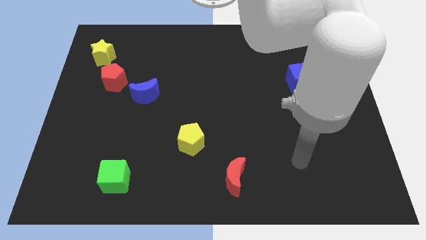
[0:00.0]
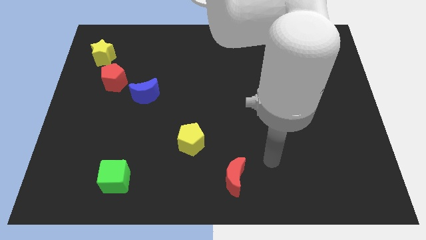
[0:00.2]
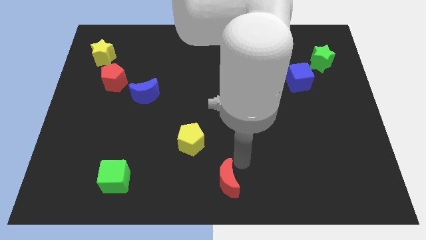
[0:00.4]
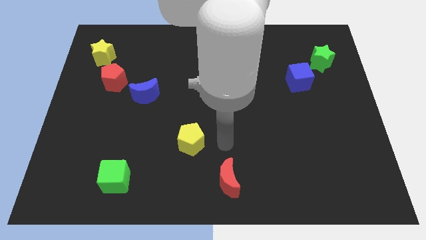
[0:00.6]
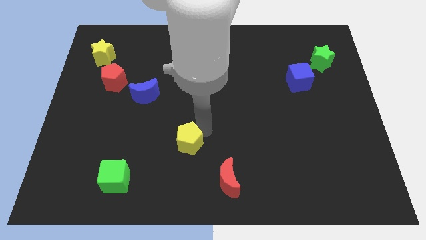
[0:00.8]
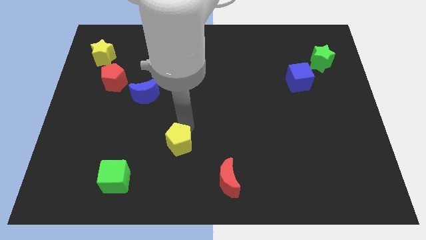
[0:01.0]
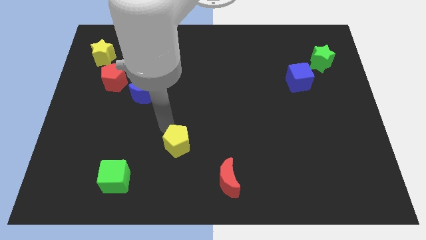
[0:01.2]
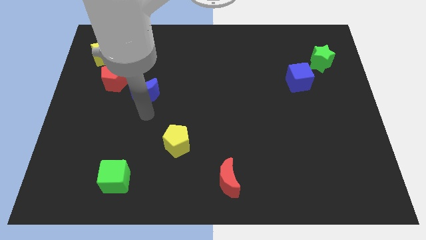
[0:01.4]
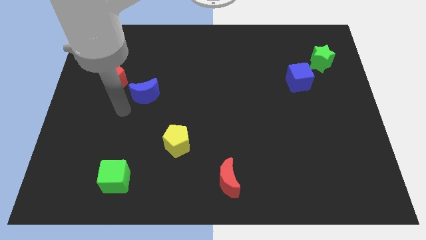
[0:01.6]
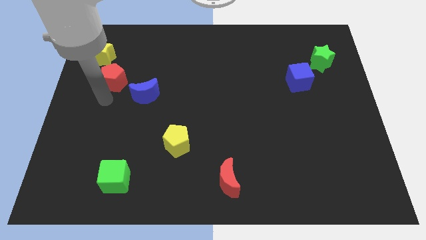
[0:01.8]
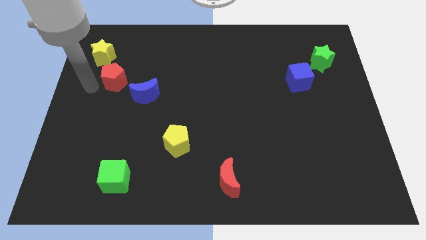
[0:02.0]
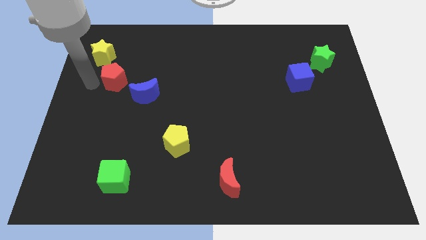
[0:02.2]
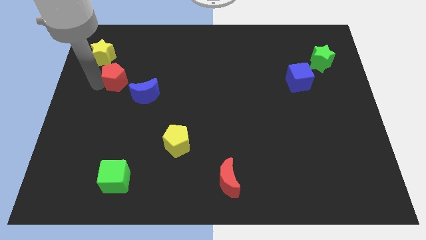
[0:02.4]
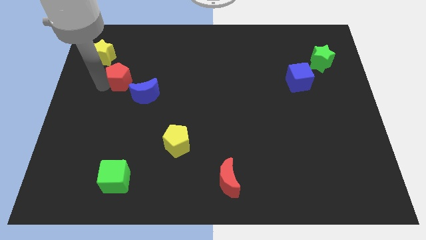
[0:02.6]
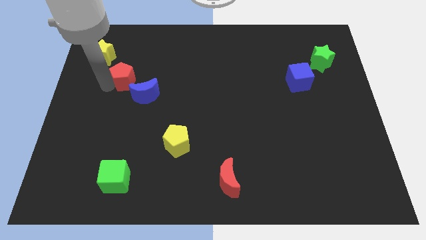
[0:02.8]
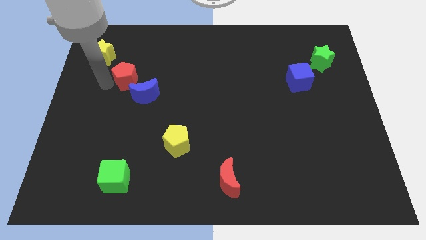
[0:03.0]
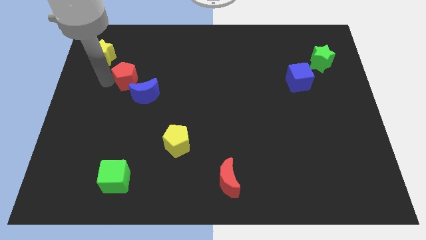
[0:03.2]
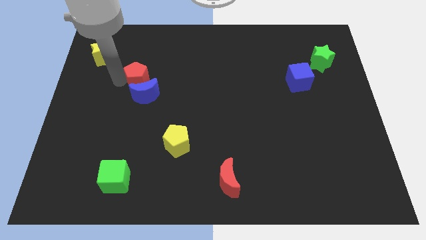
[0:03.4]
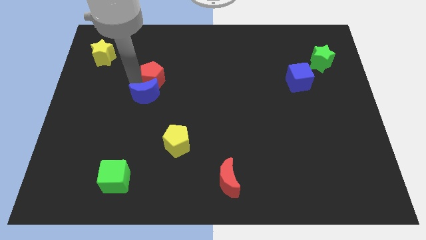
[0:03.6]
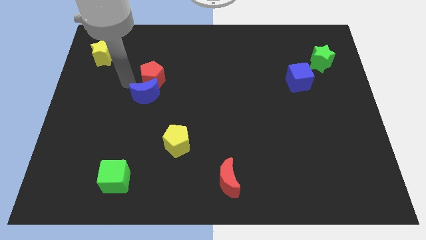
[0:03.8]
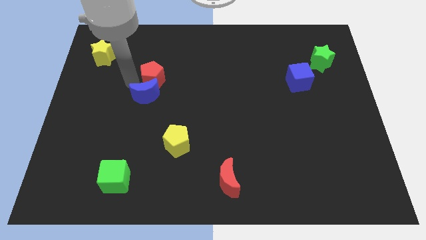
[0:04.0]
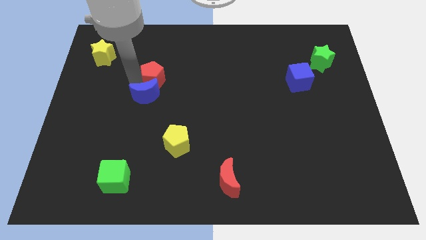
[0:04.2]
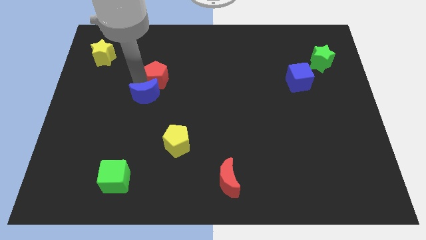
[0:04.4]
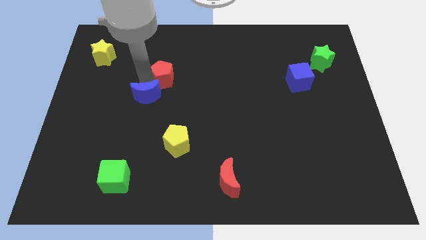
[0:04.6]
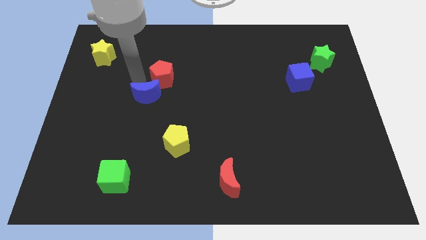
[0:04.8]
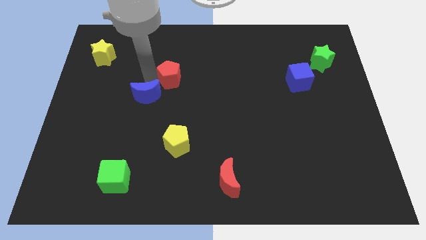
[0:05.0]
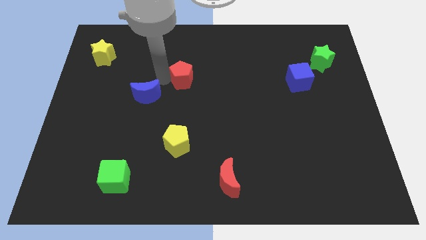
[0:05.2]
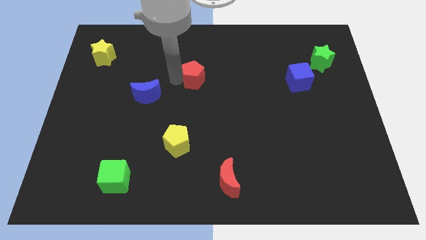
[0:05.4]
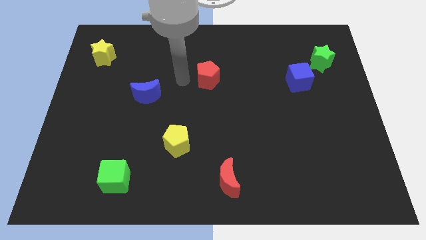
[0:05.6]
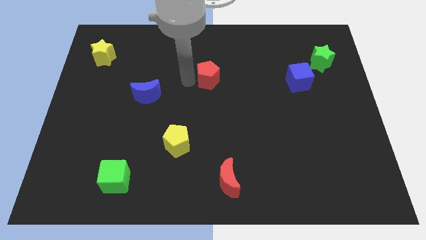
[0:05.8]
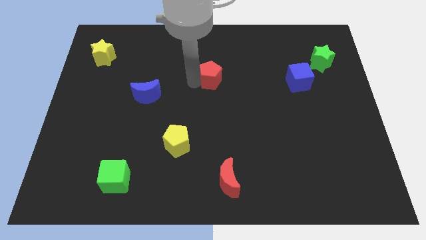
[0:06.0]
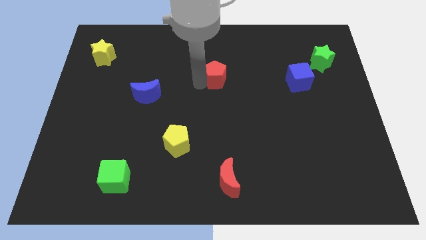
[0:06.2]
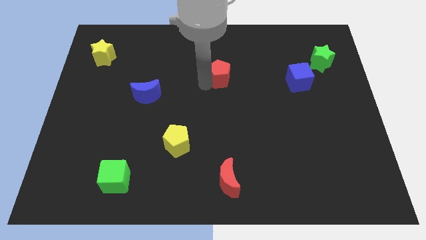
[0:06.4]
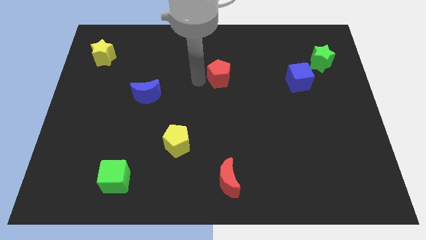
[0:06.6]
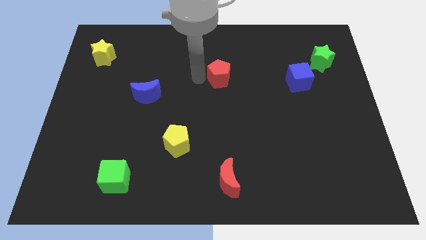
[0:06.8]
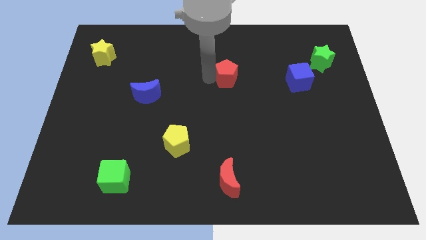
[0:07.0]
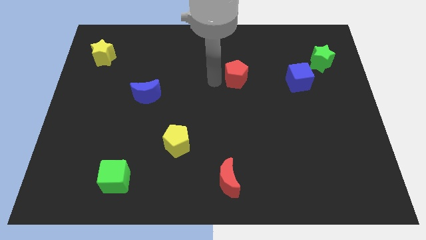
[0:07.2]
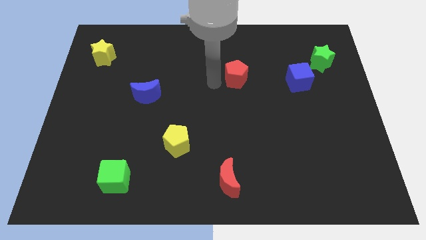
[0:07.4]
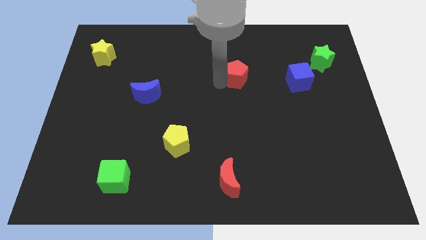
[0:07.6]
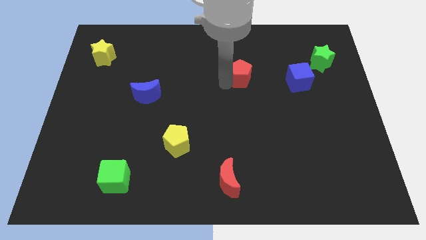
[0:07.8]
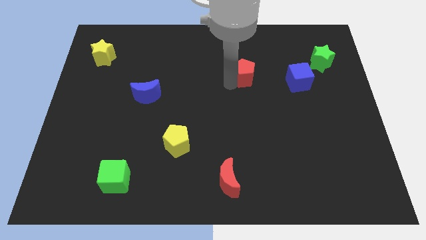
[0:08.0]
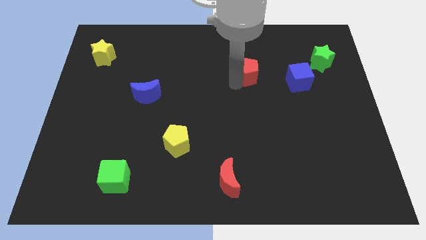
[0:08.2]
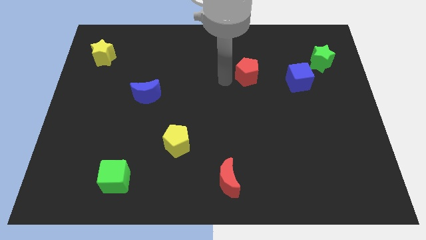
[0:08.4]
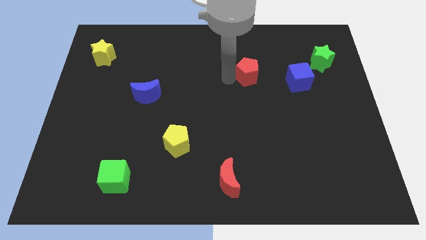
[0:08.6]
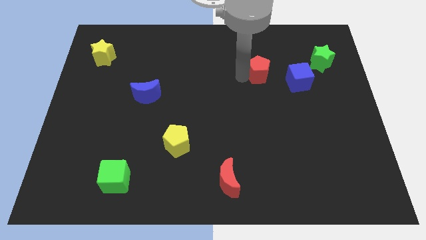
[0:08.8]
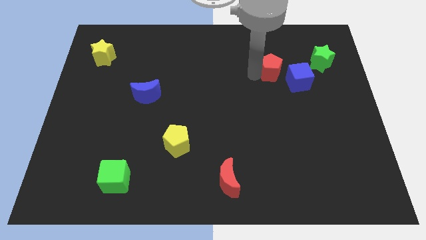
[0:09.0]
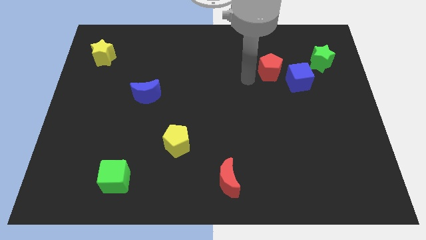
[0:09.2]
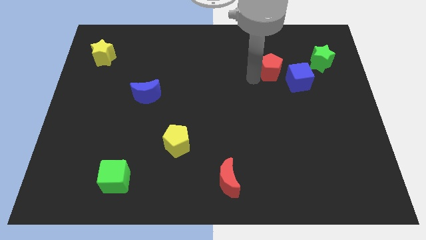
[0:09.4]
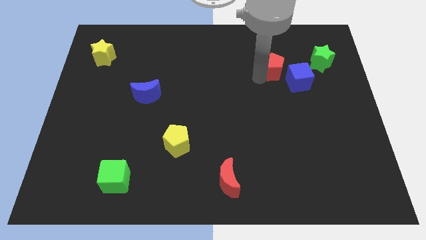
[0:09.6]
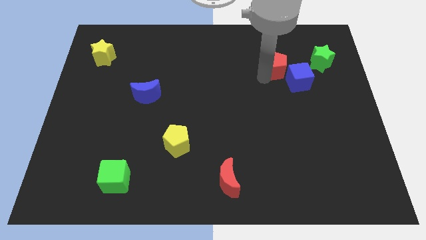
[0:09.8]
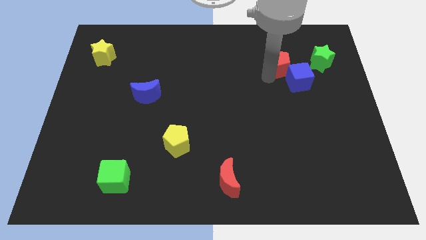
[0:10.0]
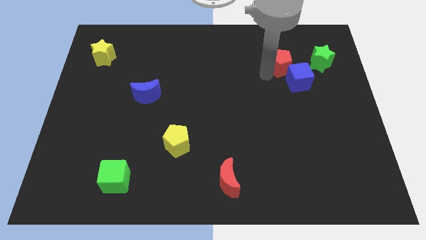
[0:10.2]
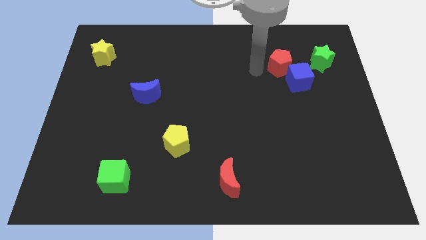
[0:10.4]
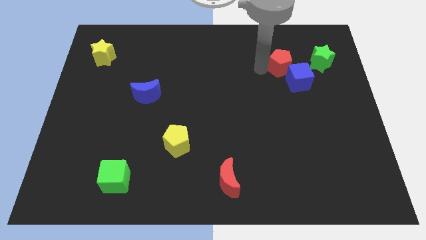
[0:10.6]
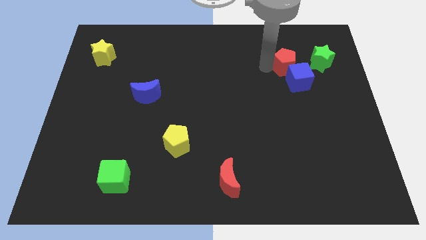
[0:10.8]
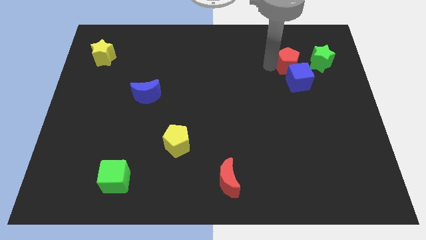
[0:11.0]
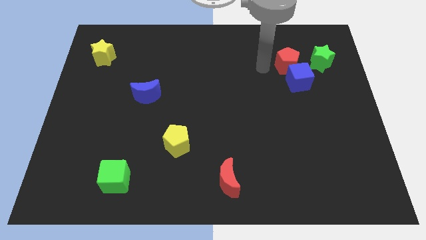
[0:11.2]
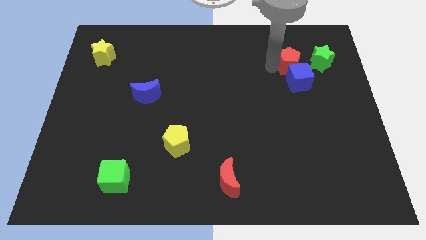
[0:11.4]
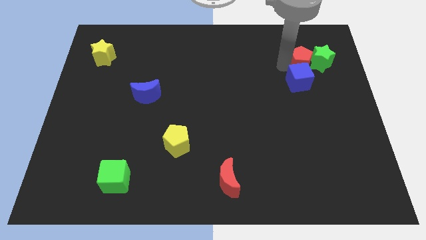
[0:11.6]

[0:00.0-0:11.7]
move the red pentagon close to the green star

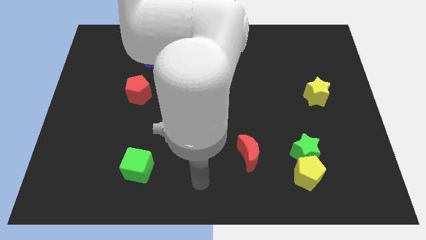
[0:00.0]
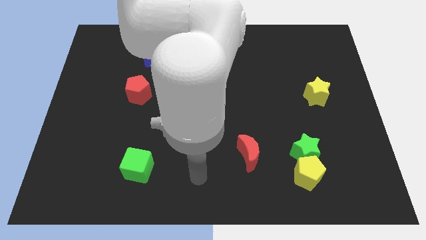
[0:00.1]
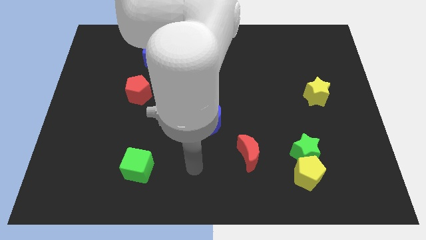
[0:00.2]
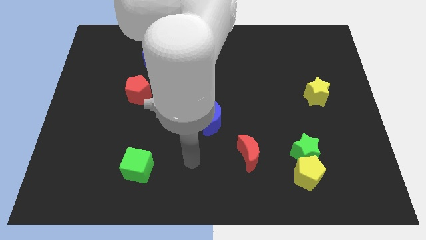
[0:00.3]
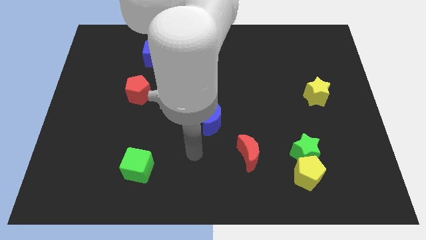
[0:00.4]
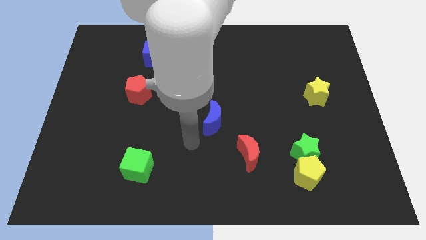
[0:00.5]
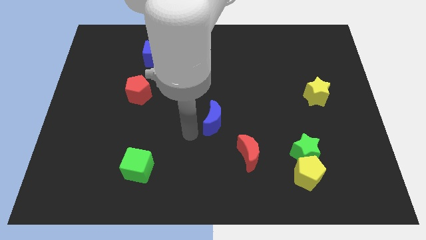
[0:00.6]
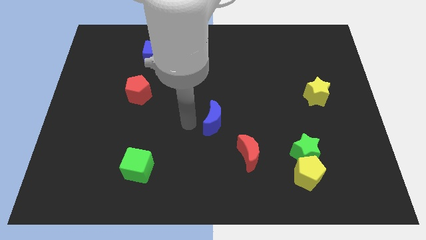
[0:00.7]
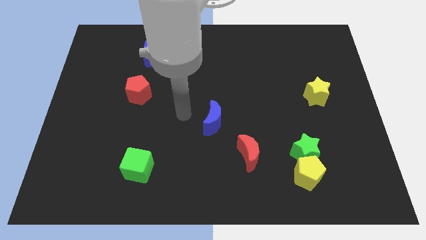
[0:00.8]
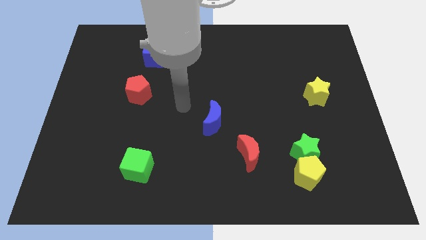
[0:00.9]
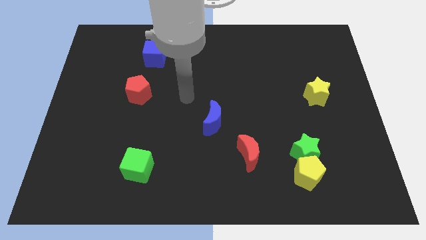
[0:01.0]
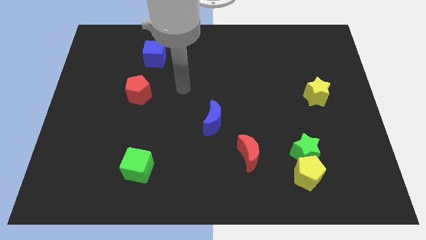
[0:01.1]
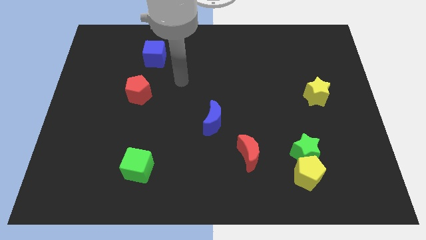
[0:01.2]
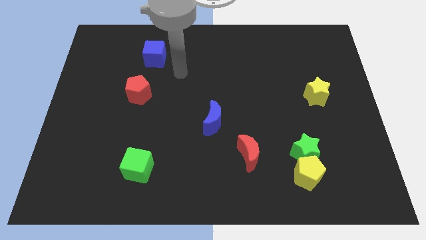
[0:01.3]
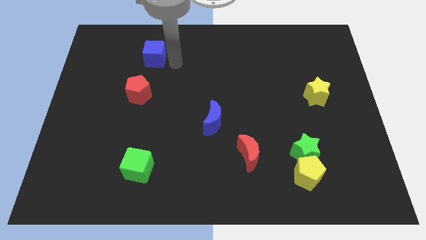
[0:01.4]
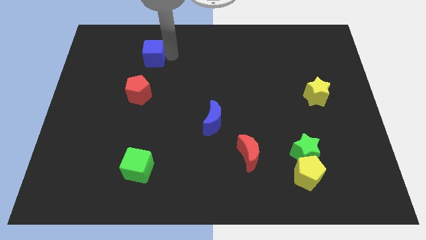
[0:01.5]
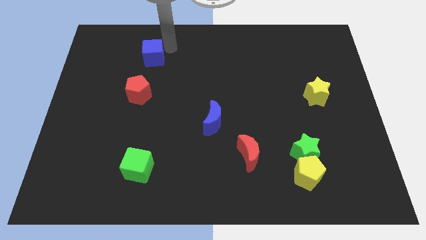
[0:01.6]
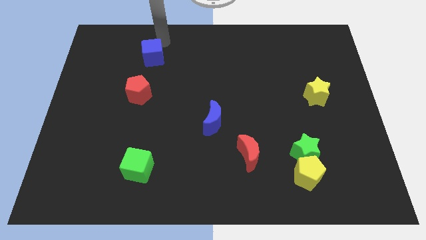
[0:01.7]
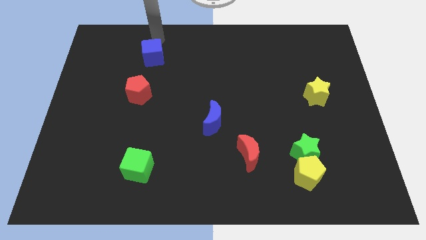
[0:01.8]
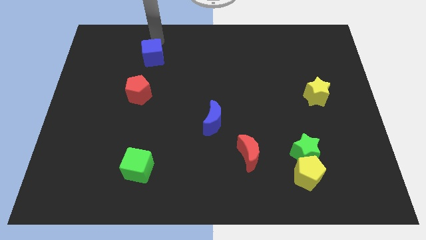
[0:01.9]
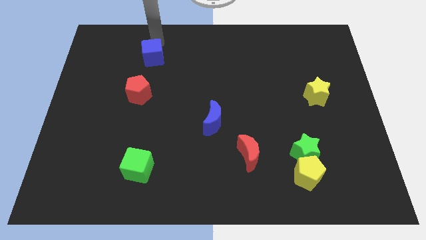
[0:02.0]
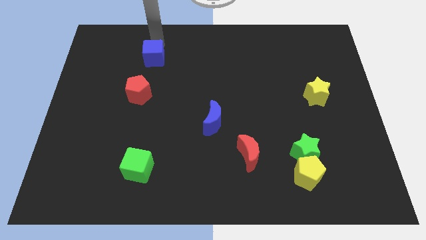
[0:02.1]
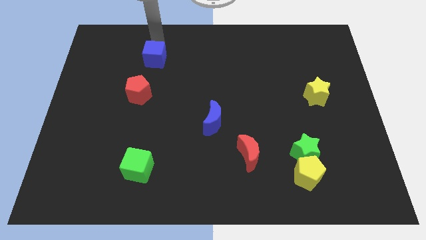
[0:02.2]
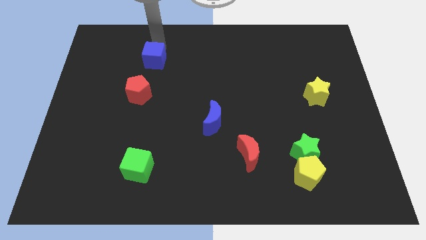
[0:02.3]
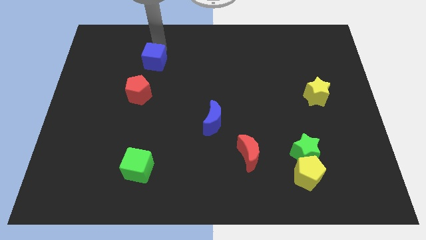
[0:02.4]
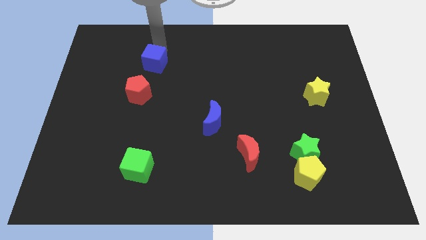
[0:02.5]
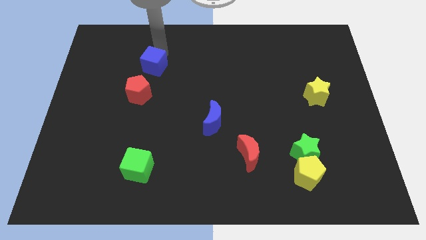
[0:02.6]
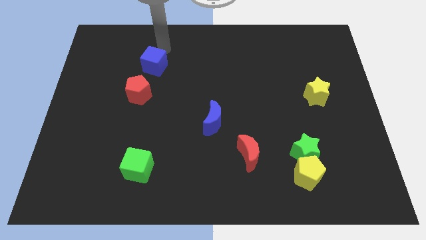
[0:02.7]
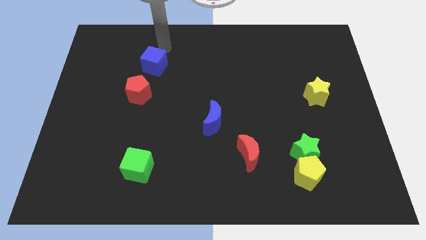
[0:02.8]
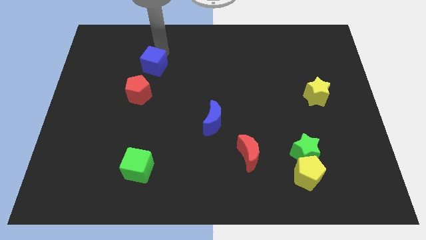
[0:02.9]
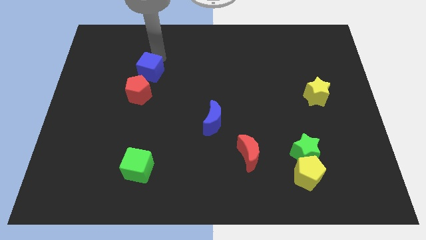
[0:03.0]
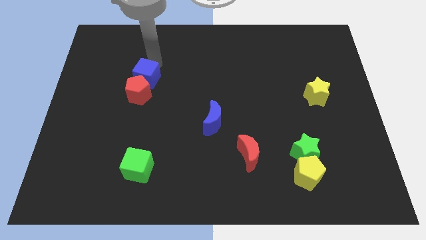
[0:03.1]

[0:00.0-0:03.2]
move the blue cube next to the red pentagon
